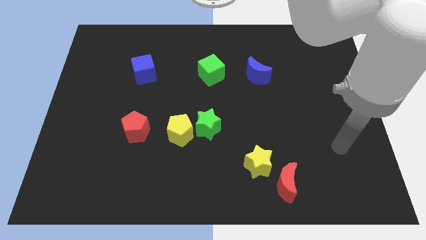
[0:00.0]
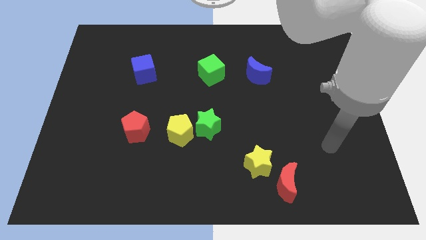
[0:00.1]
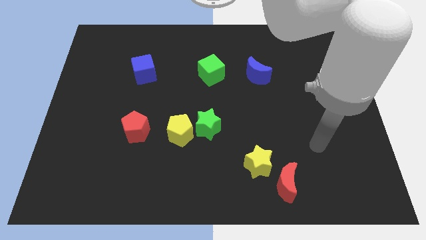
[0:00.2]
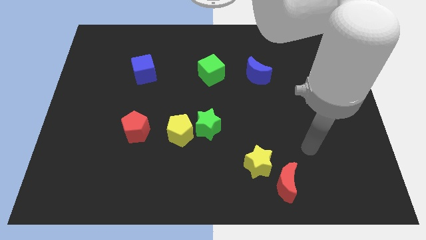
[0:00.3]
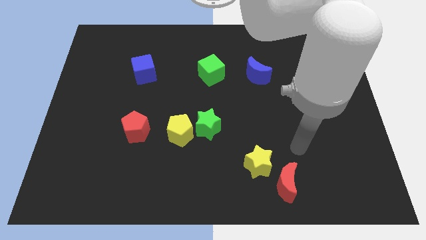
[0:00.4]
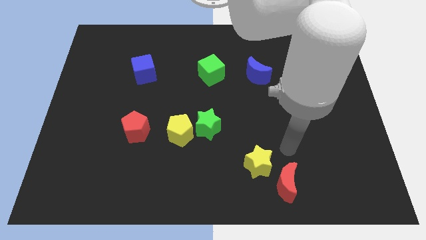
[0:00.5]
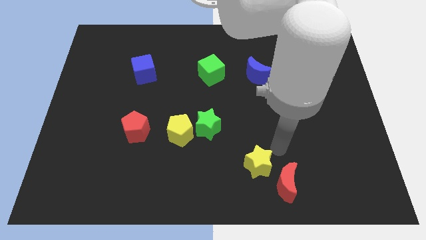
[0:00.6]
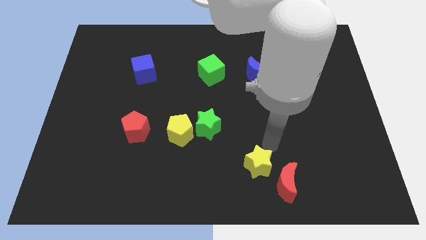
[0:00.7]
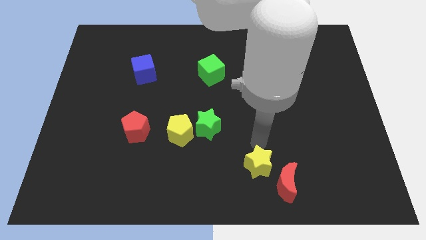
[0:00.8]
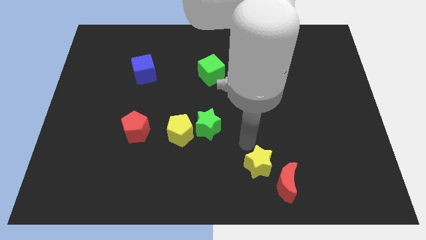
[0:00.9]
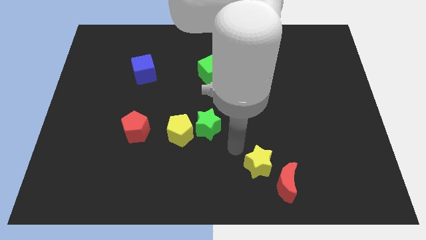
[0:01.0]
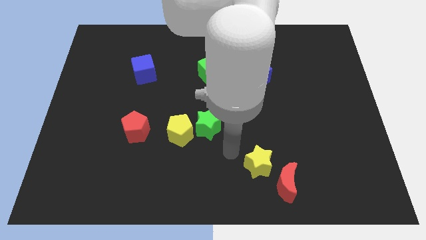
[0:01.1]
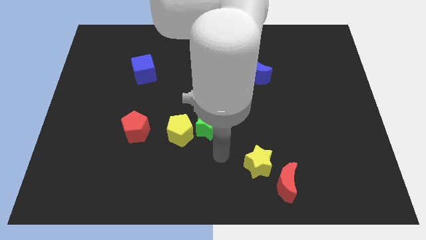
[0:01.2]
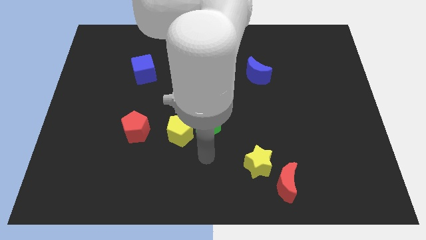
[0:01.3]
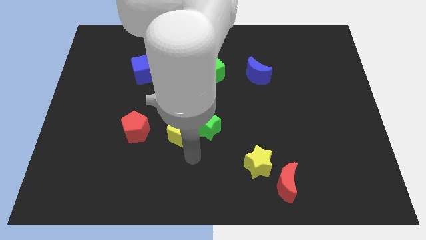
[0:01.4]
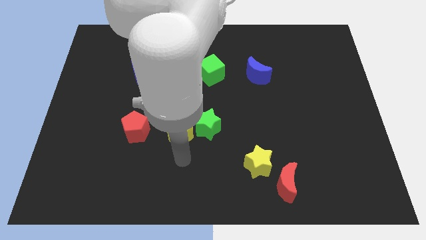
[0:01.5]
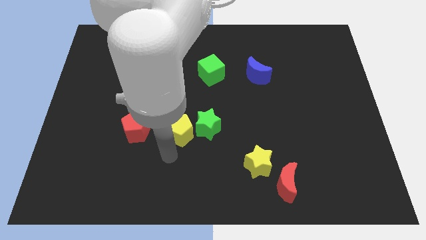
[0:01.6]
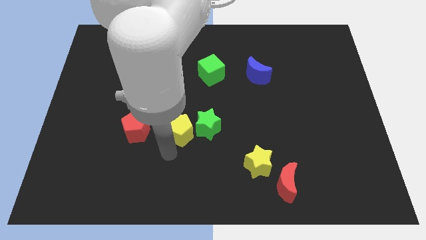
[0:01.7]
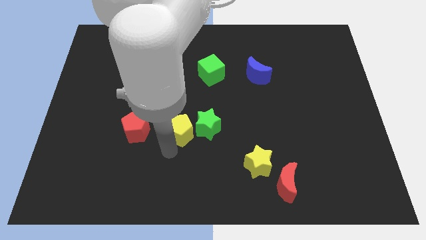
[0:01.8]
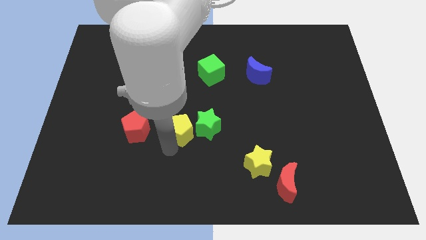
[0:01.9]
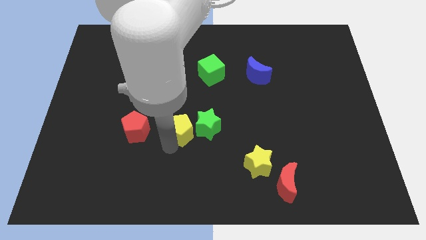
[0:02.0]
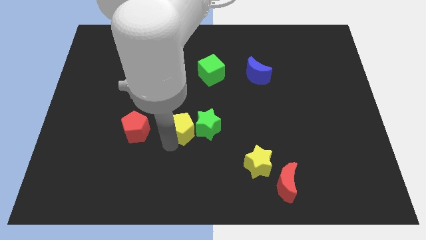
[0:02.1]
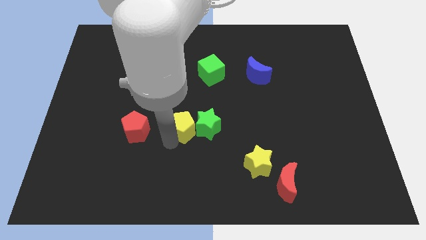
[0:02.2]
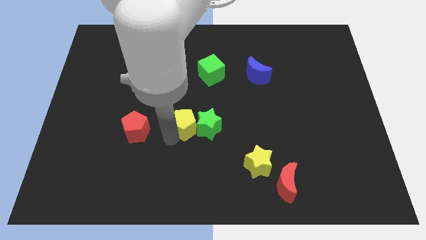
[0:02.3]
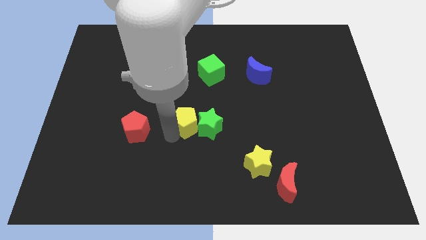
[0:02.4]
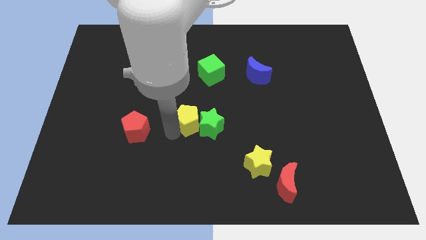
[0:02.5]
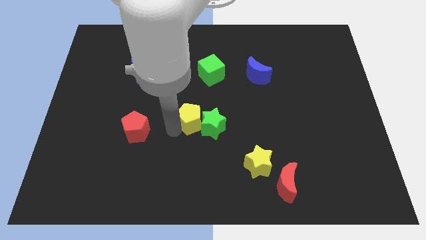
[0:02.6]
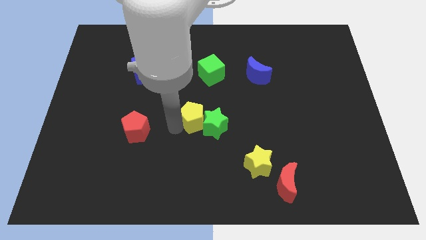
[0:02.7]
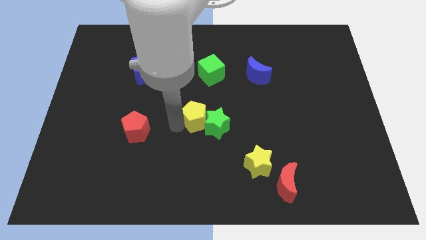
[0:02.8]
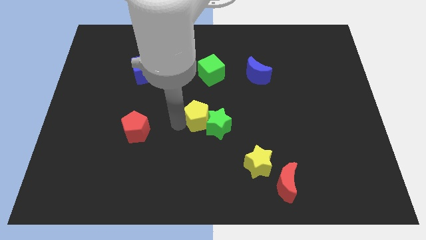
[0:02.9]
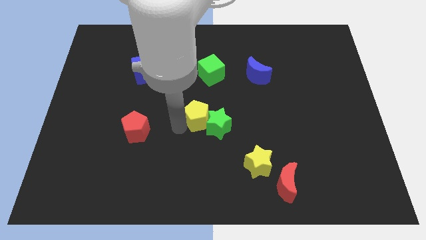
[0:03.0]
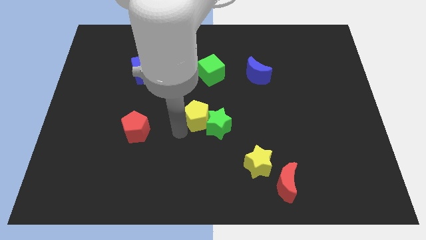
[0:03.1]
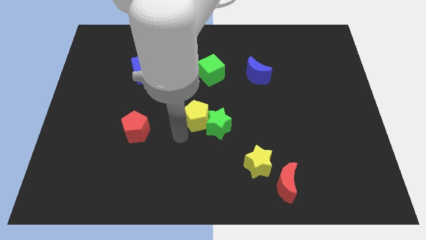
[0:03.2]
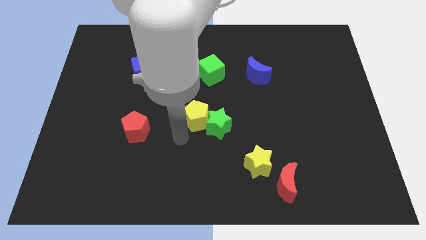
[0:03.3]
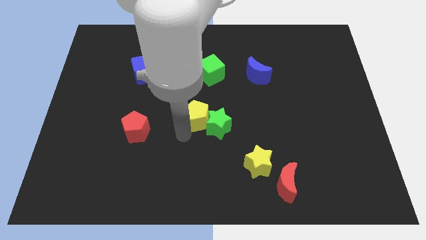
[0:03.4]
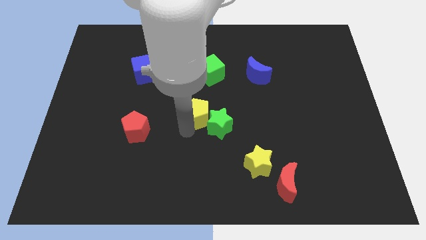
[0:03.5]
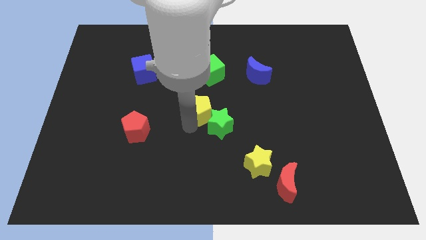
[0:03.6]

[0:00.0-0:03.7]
move the yellow pentagon a bit diagonally upwards and right

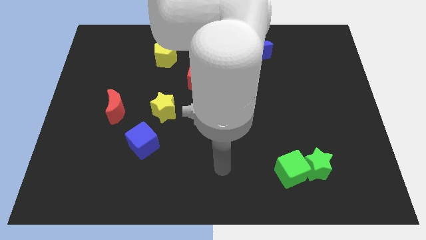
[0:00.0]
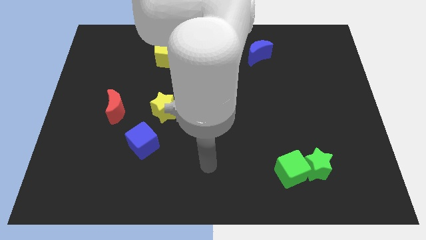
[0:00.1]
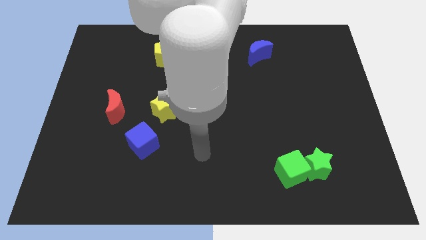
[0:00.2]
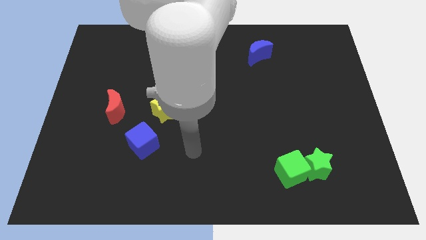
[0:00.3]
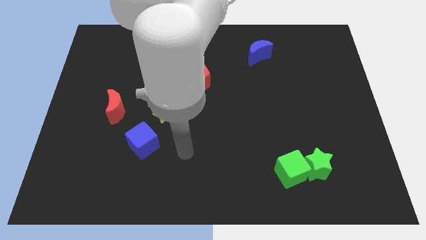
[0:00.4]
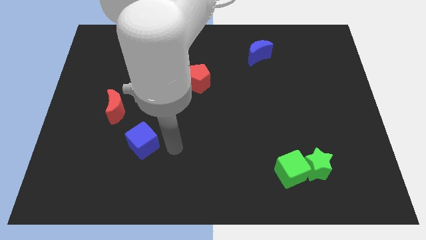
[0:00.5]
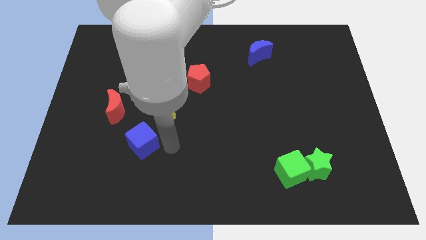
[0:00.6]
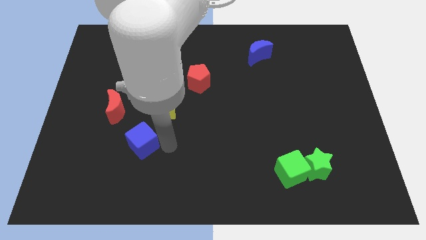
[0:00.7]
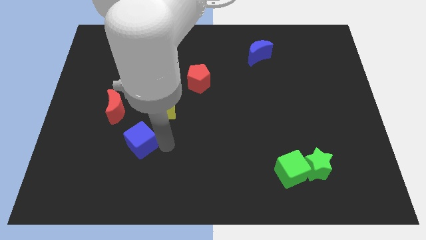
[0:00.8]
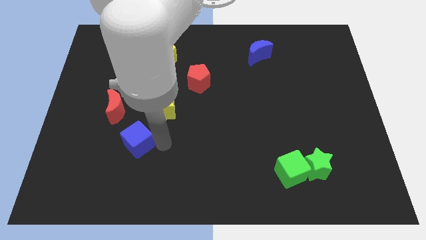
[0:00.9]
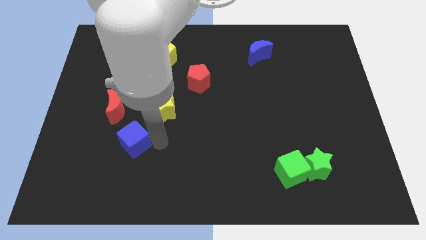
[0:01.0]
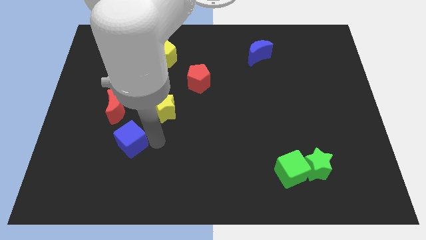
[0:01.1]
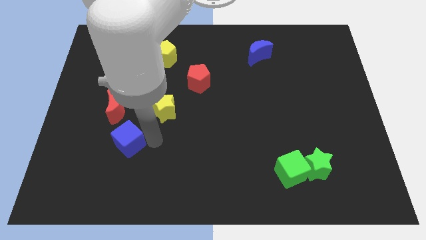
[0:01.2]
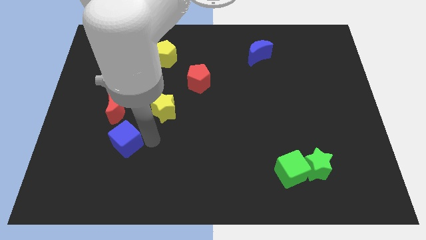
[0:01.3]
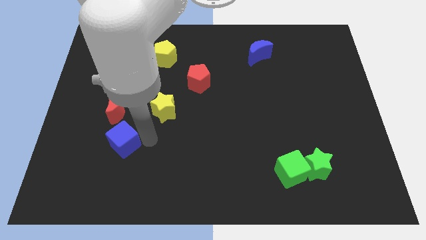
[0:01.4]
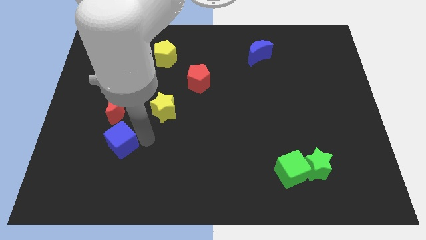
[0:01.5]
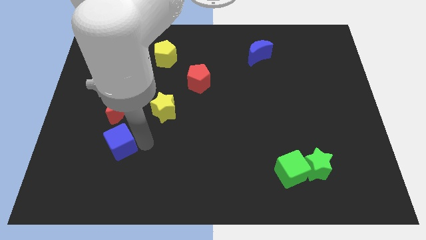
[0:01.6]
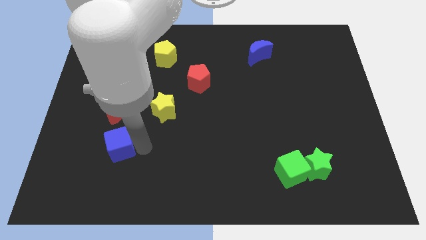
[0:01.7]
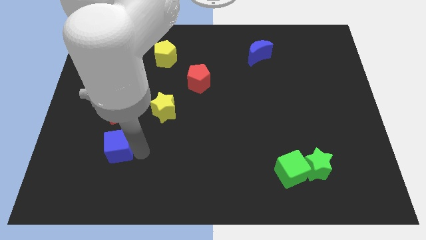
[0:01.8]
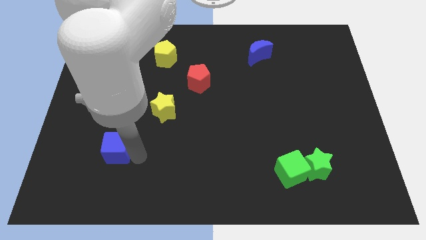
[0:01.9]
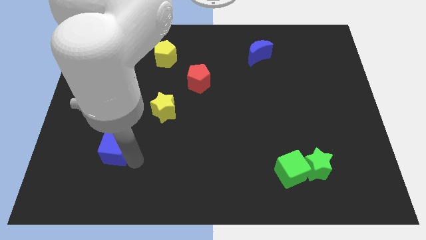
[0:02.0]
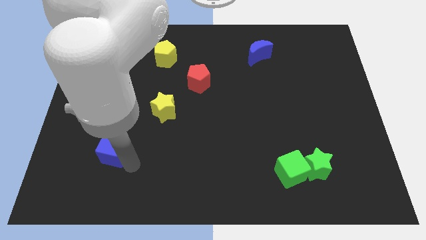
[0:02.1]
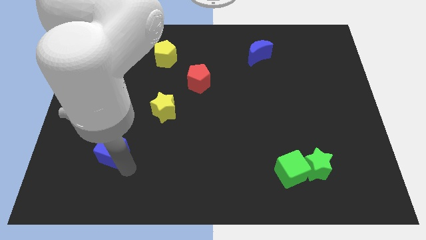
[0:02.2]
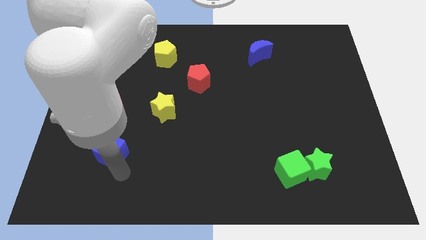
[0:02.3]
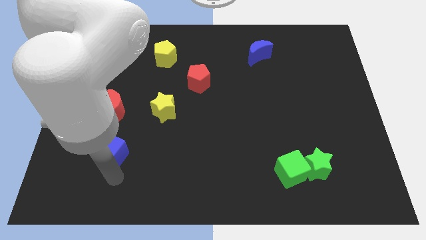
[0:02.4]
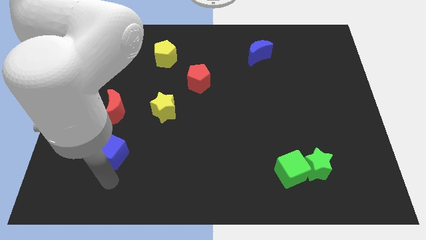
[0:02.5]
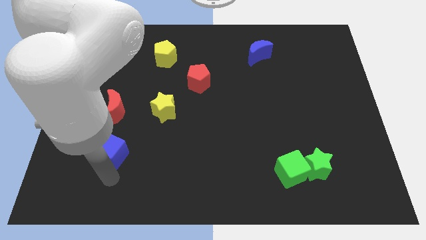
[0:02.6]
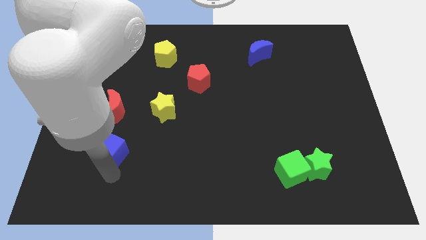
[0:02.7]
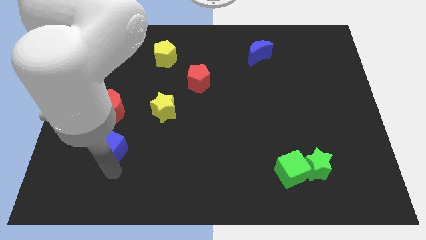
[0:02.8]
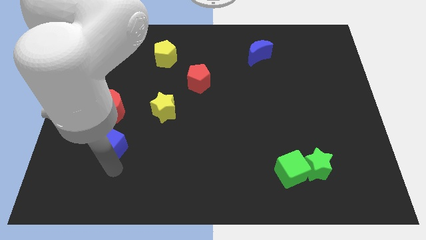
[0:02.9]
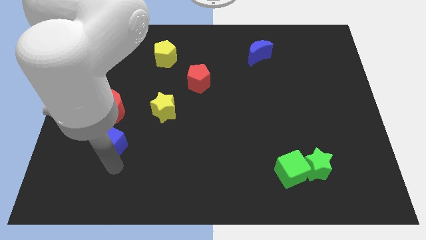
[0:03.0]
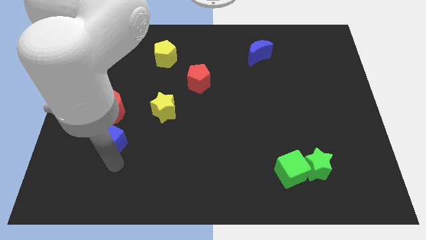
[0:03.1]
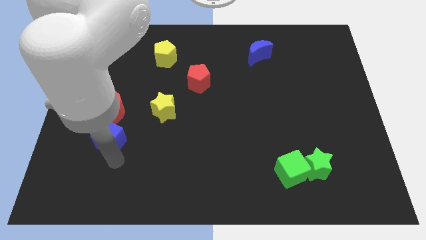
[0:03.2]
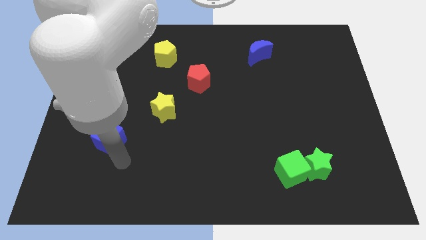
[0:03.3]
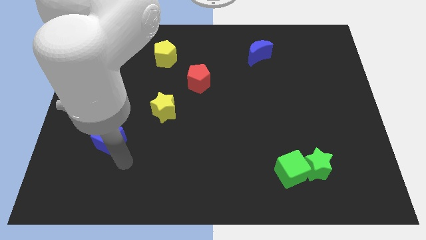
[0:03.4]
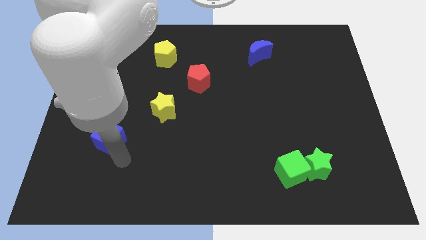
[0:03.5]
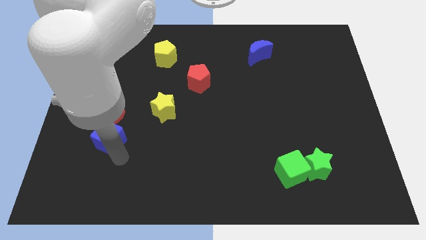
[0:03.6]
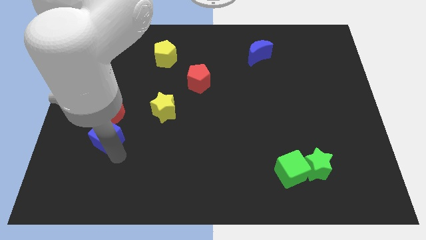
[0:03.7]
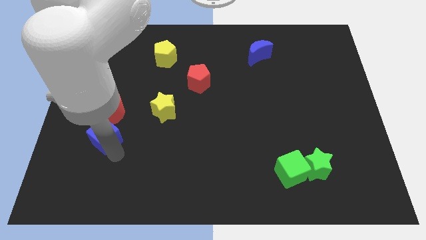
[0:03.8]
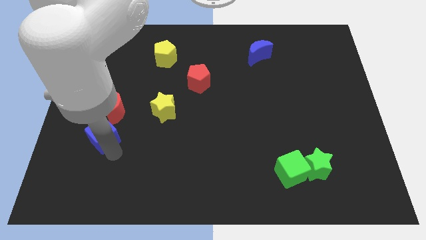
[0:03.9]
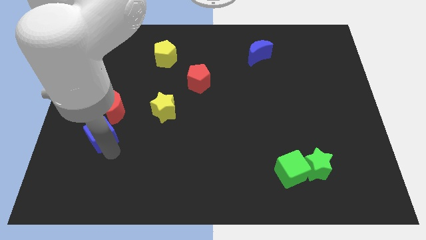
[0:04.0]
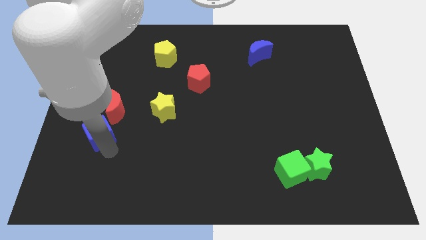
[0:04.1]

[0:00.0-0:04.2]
slide the blue cube a bit upwards and then to the left

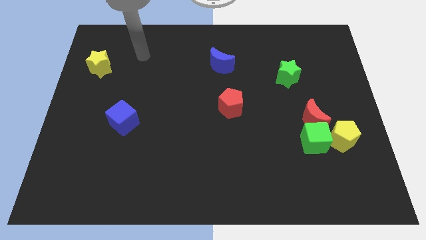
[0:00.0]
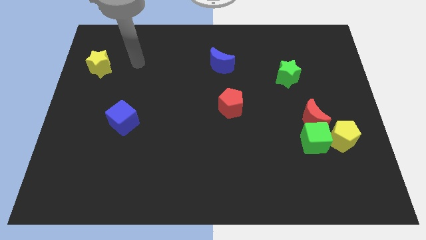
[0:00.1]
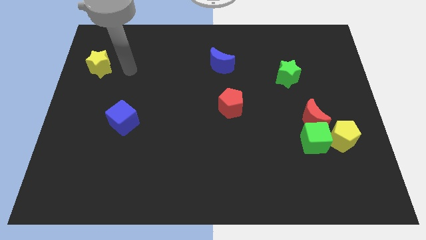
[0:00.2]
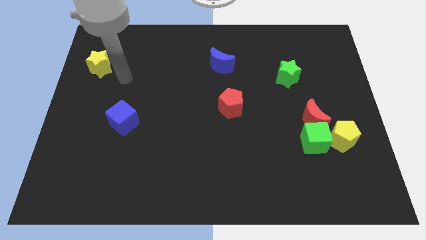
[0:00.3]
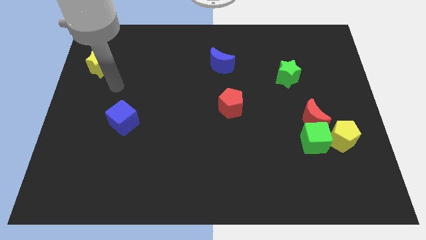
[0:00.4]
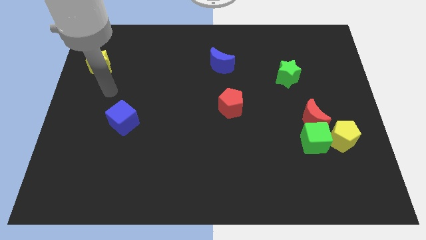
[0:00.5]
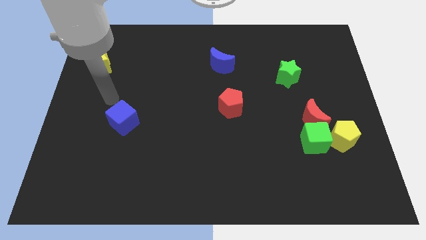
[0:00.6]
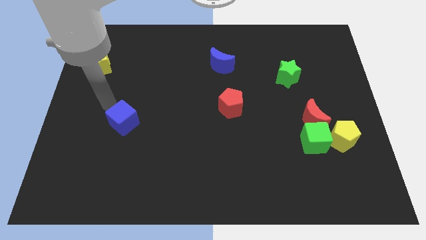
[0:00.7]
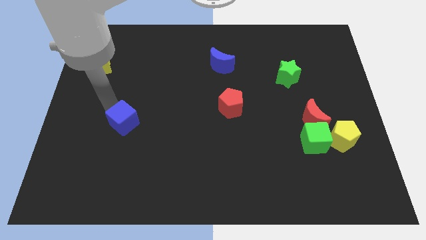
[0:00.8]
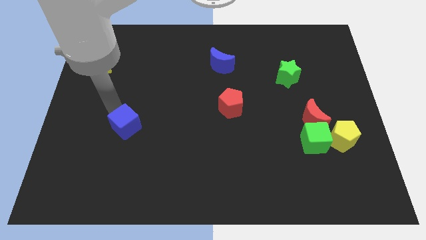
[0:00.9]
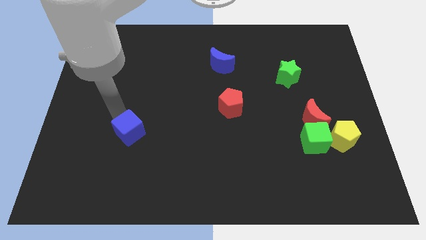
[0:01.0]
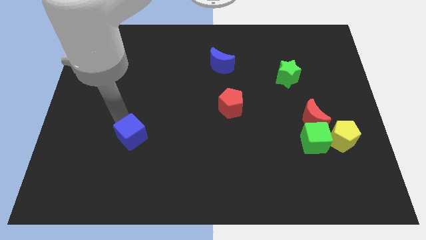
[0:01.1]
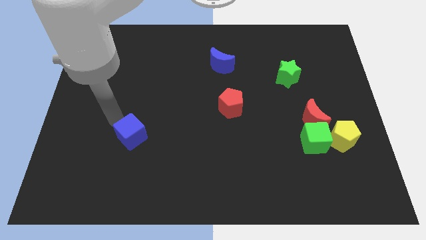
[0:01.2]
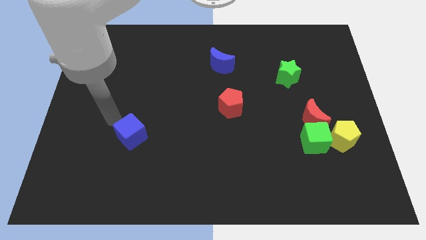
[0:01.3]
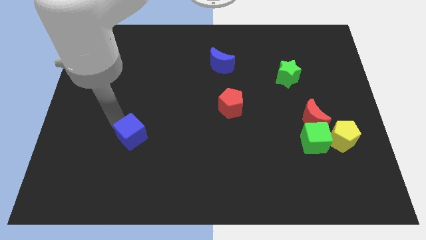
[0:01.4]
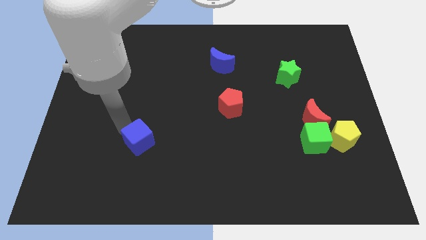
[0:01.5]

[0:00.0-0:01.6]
push the blue cube a little bit downwards and to the right
